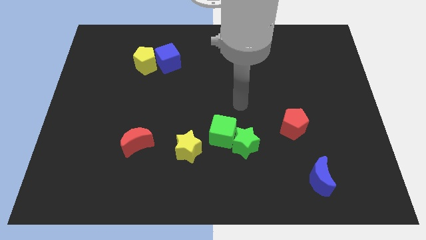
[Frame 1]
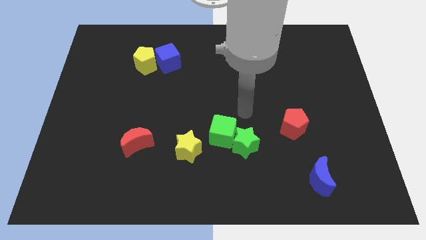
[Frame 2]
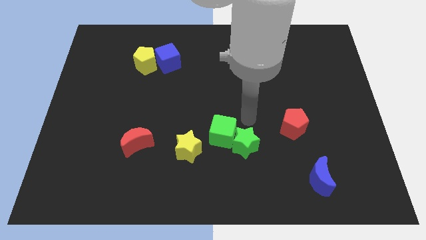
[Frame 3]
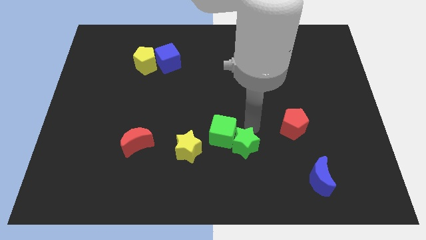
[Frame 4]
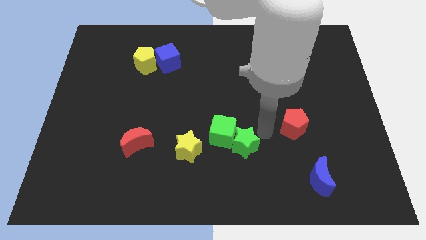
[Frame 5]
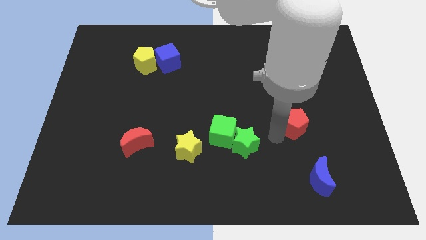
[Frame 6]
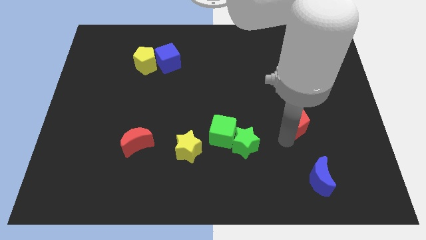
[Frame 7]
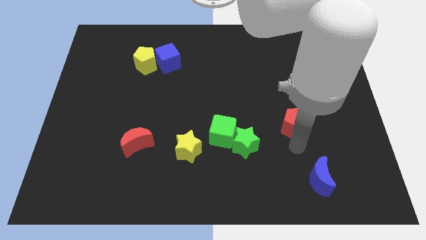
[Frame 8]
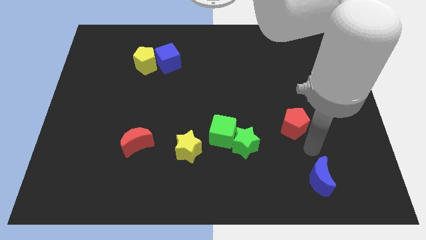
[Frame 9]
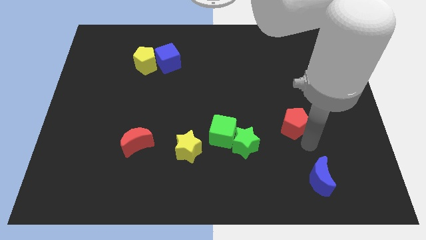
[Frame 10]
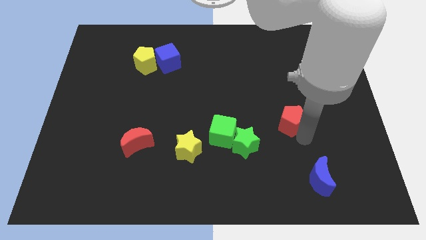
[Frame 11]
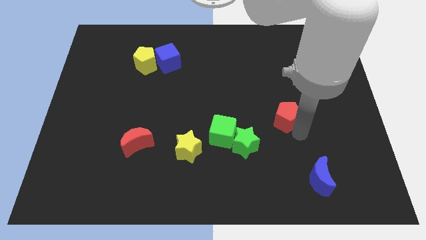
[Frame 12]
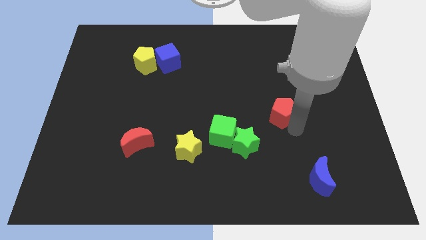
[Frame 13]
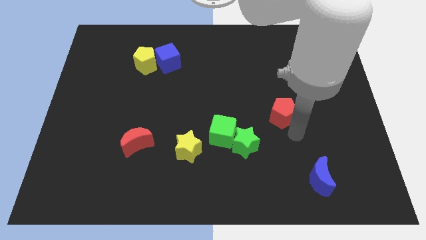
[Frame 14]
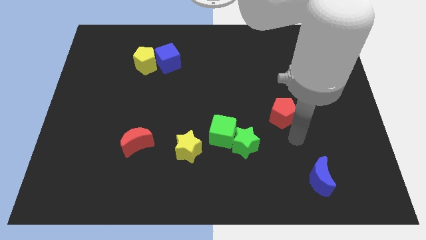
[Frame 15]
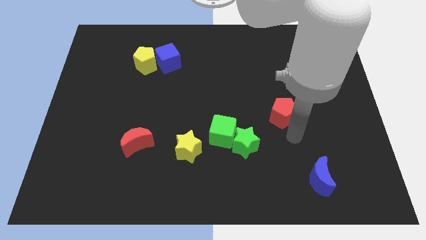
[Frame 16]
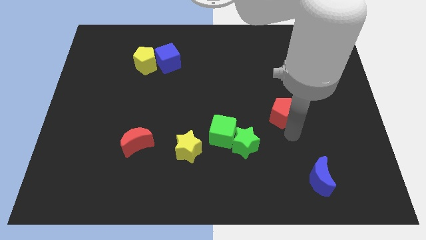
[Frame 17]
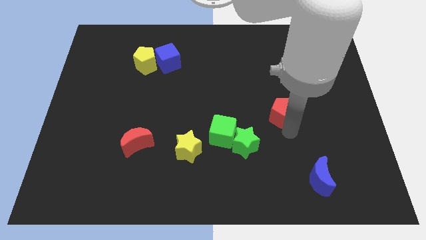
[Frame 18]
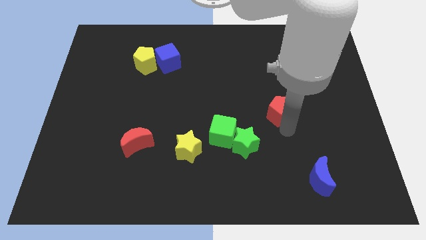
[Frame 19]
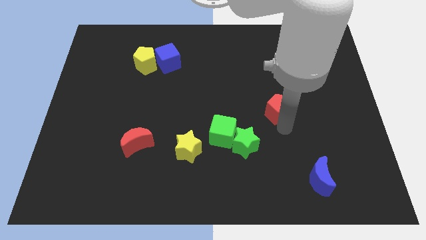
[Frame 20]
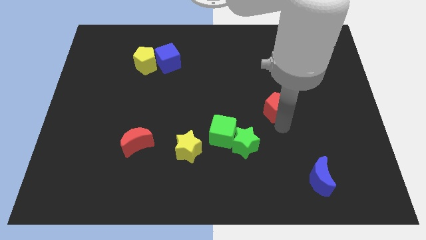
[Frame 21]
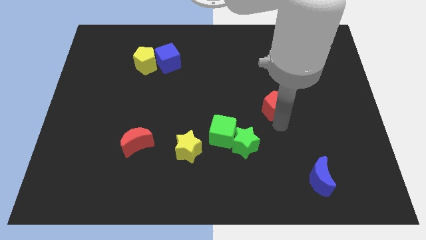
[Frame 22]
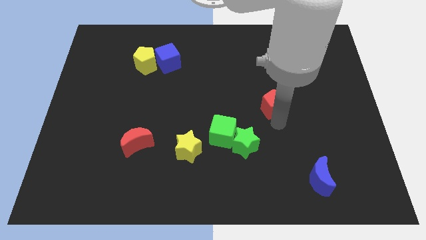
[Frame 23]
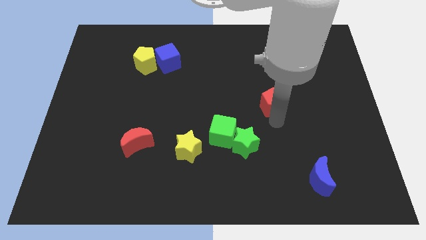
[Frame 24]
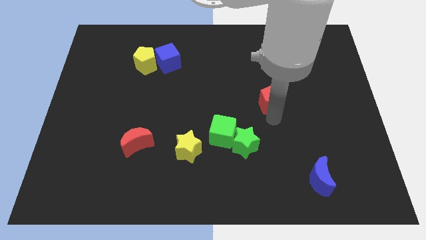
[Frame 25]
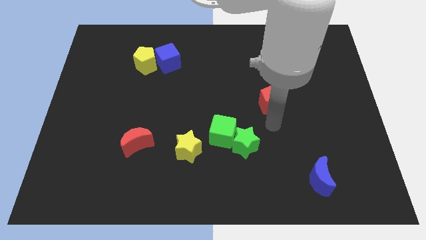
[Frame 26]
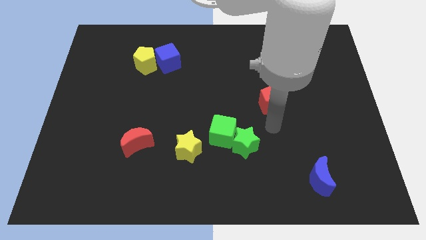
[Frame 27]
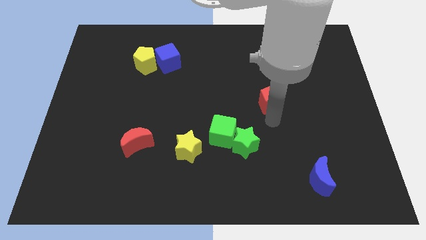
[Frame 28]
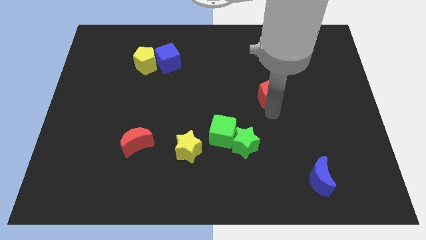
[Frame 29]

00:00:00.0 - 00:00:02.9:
move the red pentagon upwards slightly

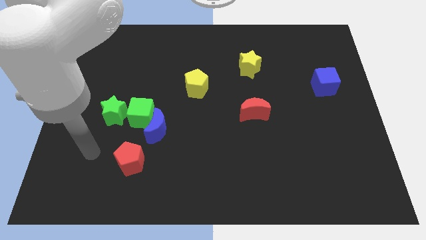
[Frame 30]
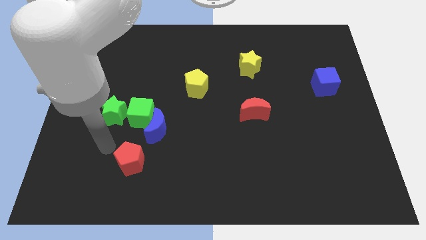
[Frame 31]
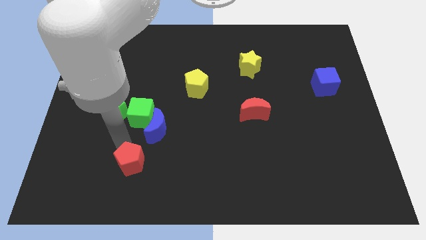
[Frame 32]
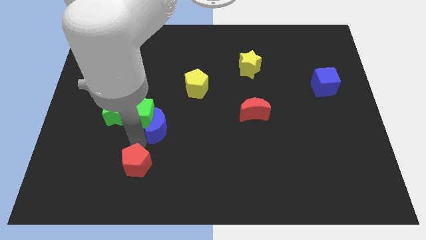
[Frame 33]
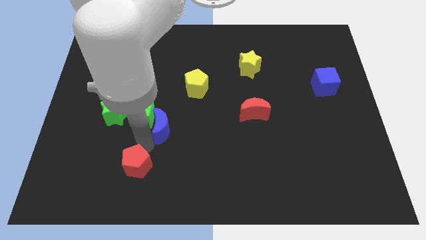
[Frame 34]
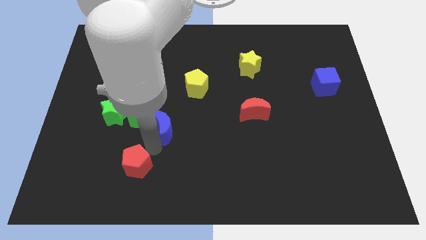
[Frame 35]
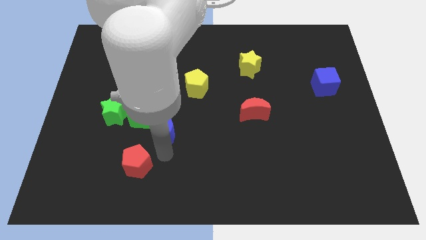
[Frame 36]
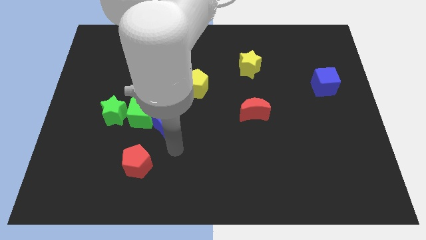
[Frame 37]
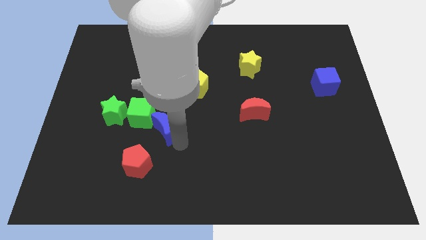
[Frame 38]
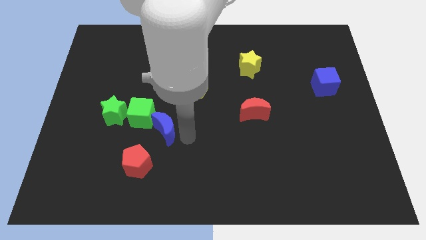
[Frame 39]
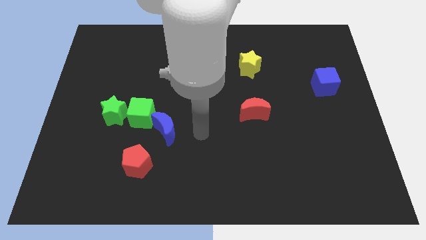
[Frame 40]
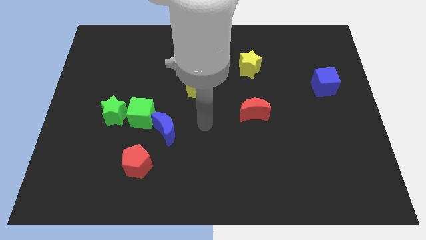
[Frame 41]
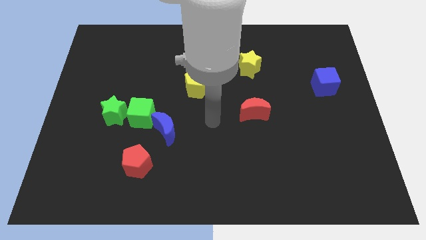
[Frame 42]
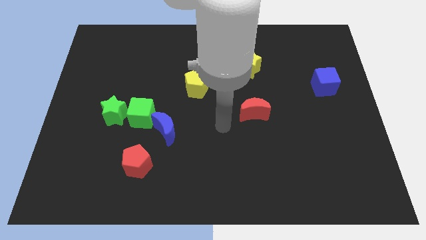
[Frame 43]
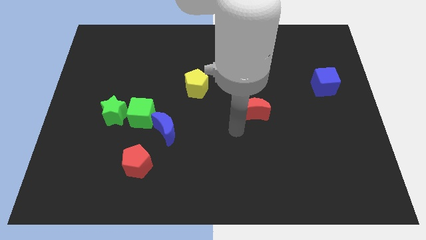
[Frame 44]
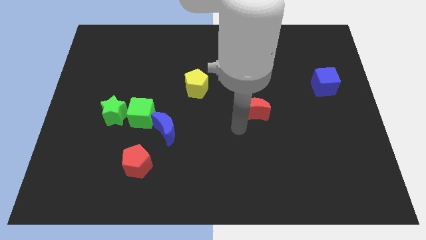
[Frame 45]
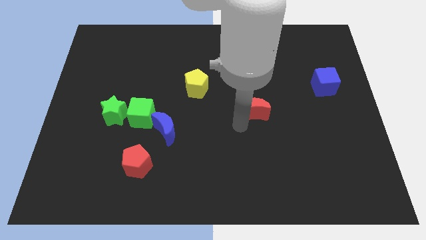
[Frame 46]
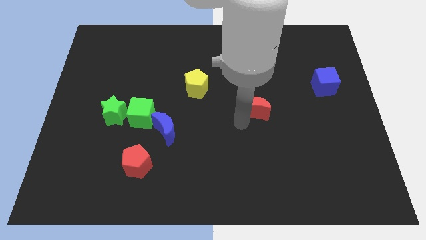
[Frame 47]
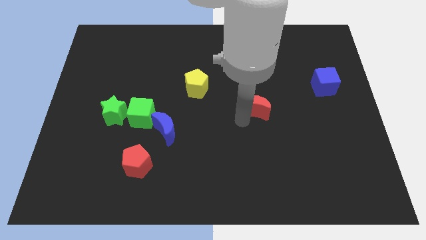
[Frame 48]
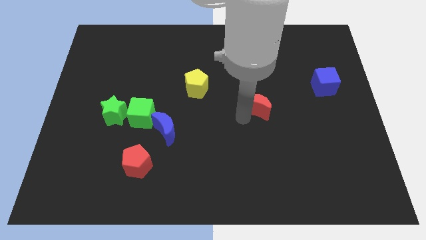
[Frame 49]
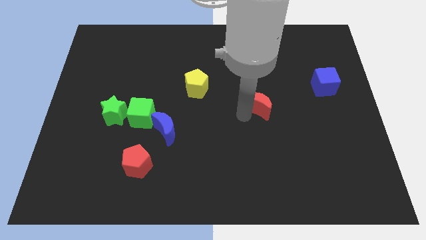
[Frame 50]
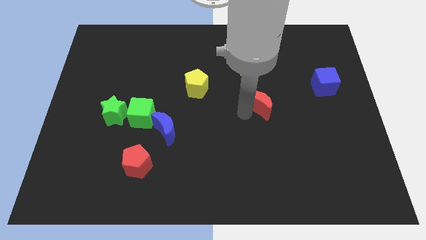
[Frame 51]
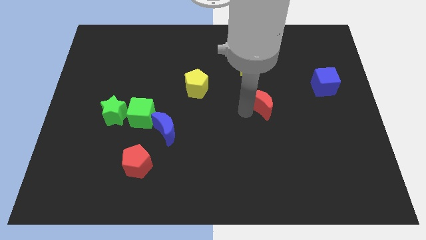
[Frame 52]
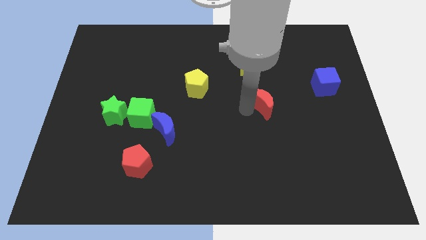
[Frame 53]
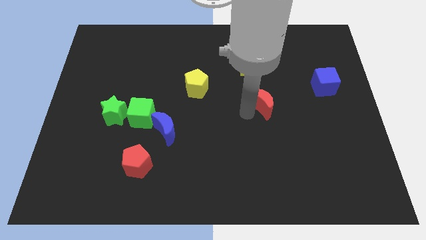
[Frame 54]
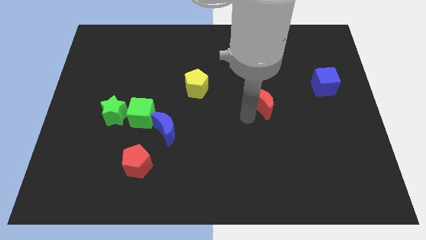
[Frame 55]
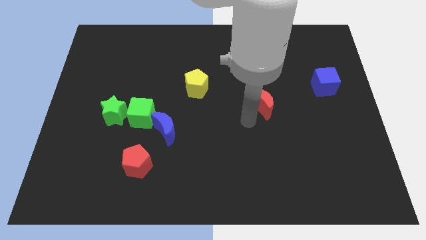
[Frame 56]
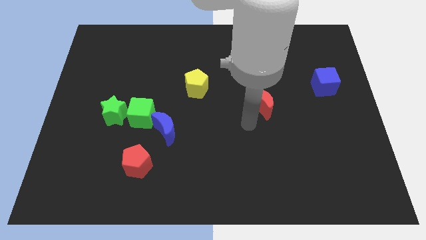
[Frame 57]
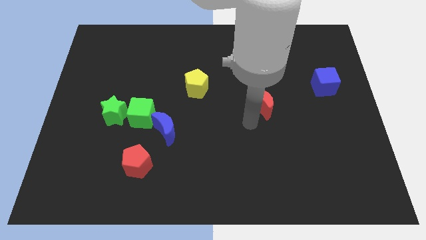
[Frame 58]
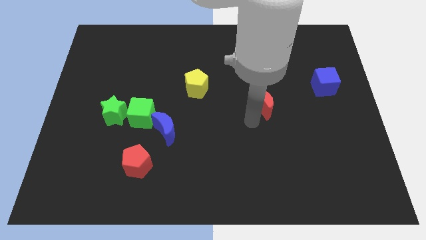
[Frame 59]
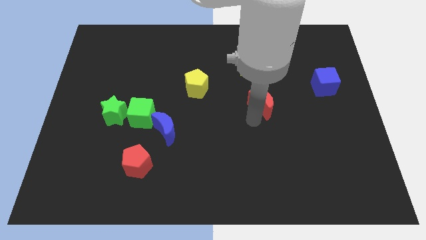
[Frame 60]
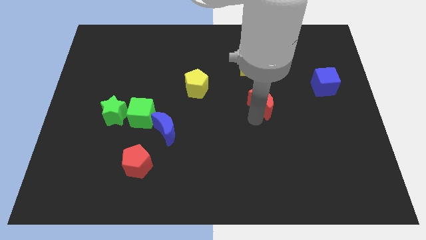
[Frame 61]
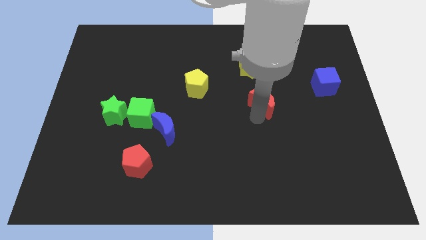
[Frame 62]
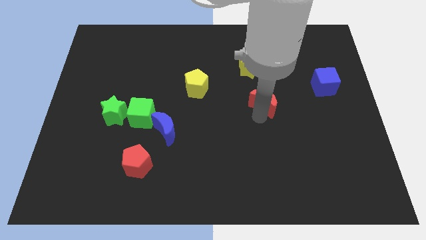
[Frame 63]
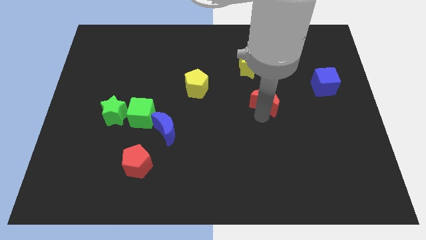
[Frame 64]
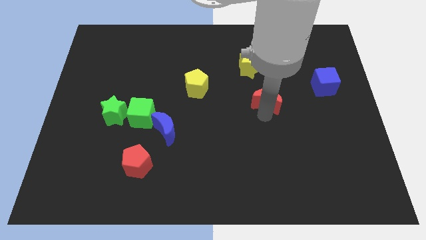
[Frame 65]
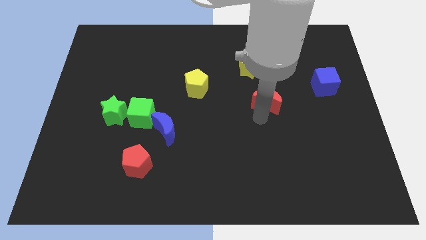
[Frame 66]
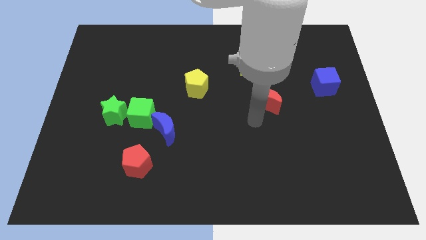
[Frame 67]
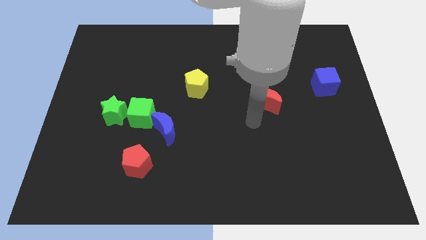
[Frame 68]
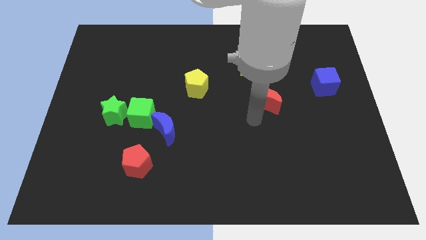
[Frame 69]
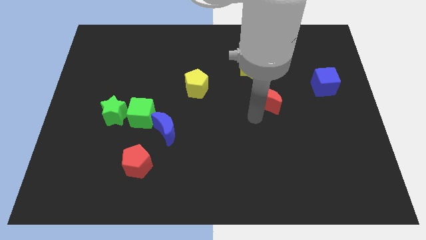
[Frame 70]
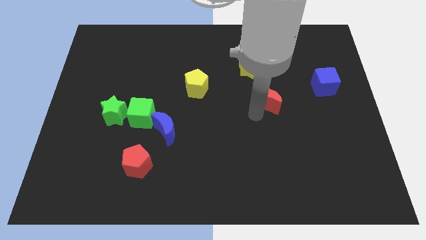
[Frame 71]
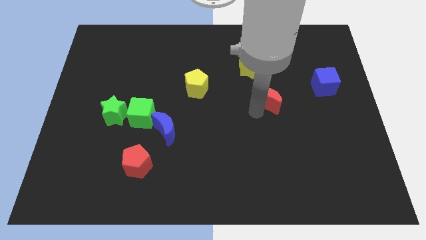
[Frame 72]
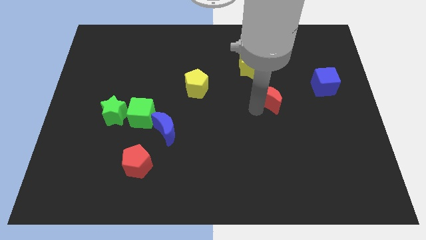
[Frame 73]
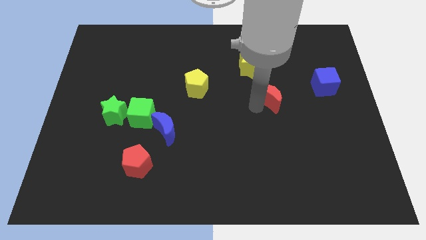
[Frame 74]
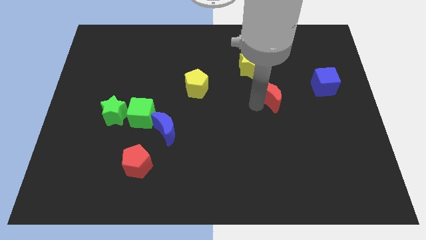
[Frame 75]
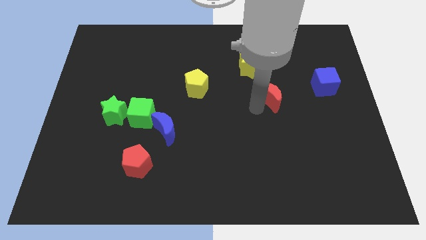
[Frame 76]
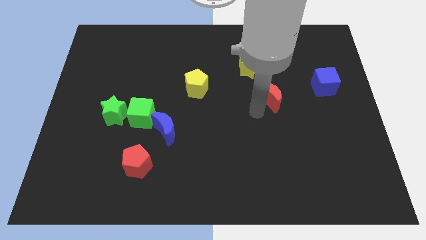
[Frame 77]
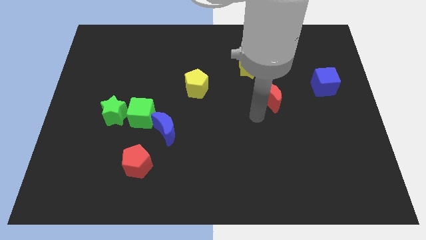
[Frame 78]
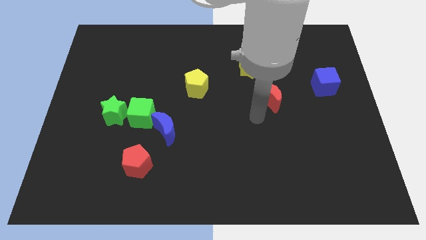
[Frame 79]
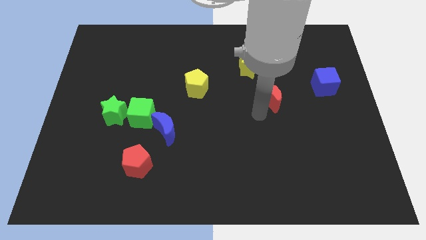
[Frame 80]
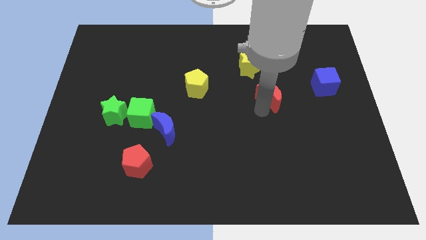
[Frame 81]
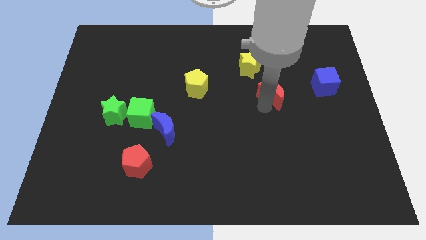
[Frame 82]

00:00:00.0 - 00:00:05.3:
slide the red moon upwards and then to the right a bit
